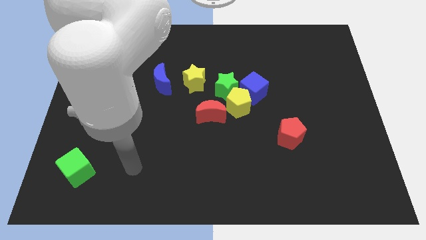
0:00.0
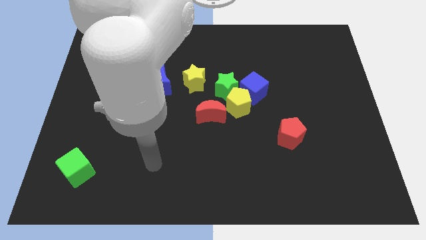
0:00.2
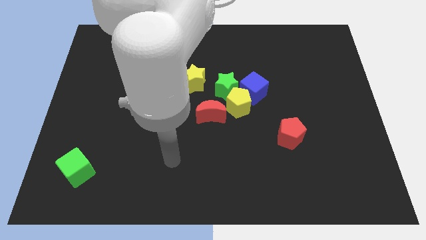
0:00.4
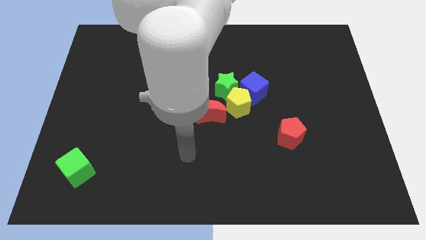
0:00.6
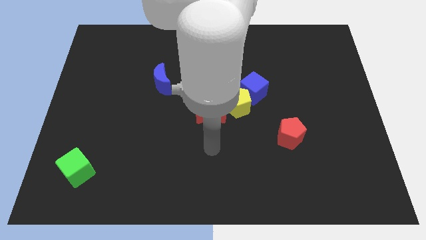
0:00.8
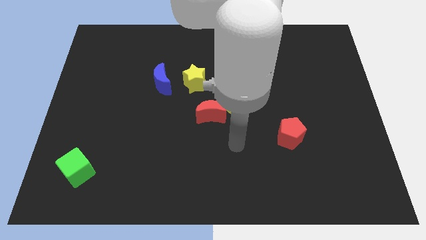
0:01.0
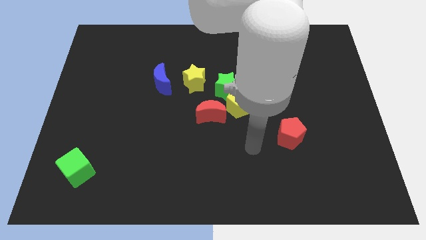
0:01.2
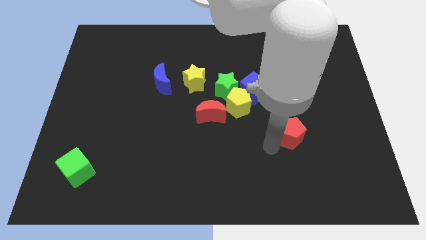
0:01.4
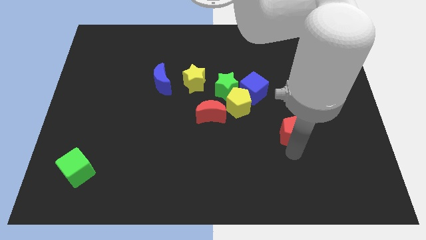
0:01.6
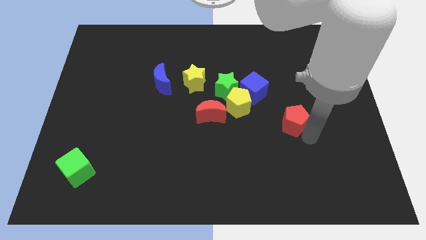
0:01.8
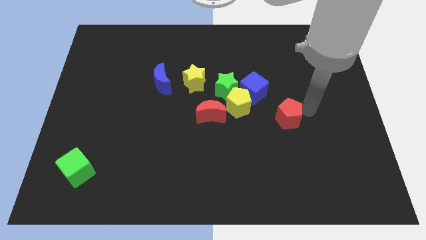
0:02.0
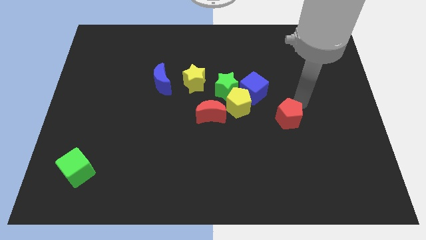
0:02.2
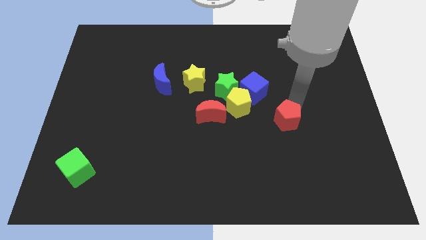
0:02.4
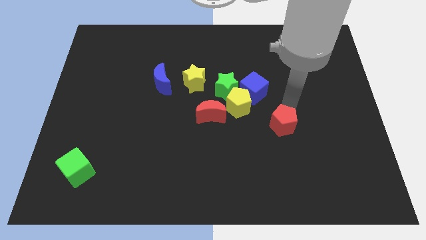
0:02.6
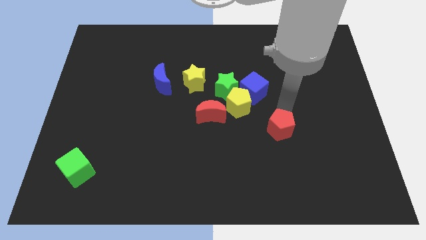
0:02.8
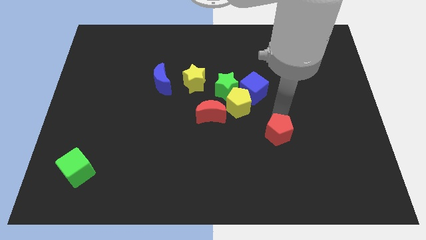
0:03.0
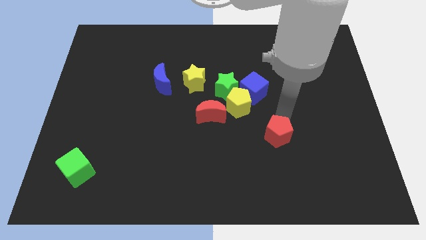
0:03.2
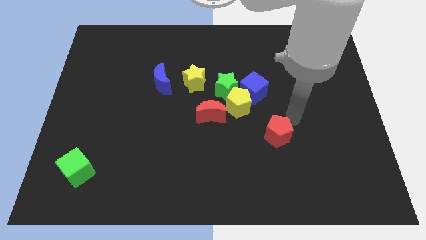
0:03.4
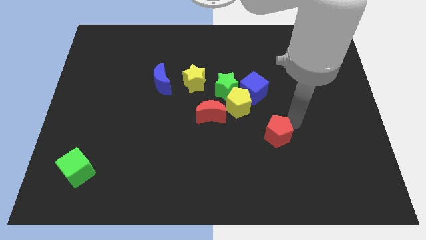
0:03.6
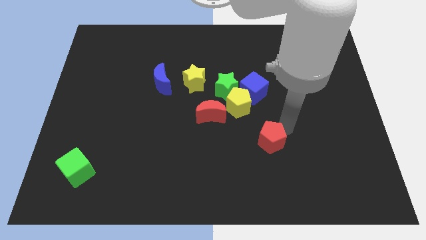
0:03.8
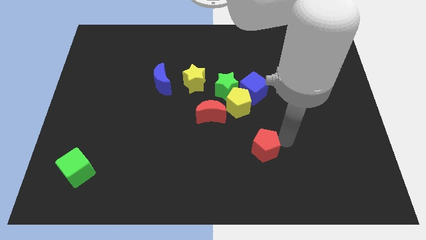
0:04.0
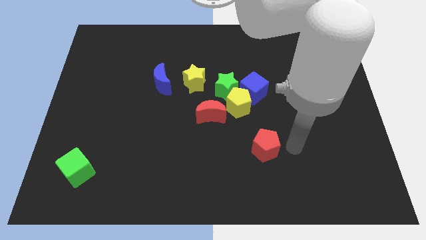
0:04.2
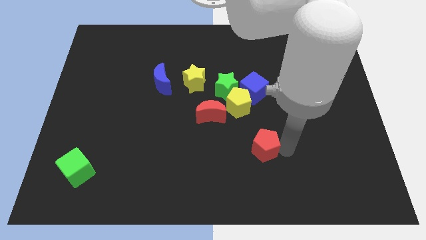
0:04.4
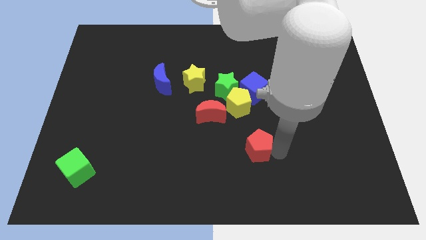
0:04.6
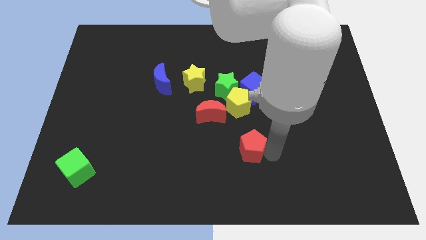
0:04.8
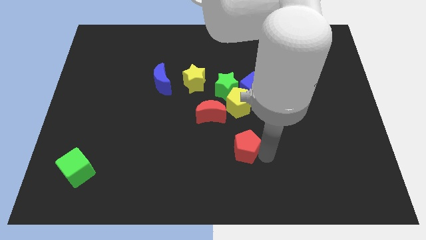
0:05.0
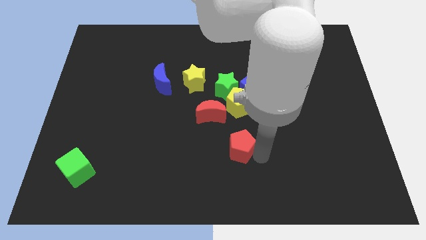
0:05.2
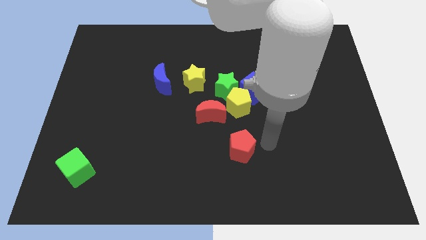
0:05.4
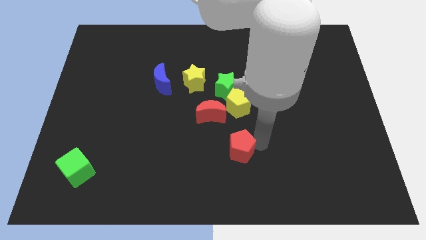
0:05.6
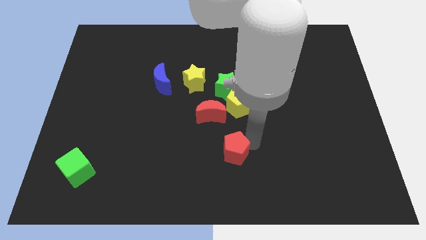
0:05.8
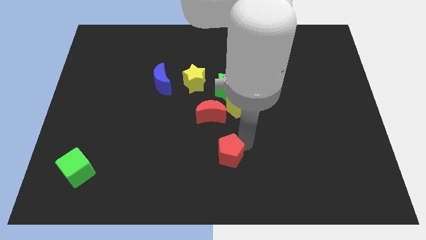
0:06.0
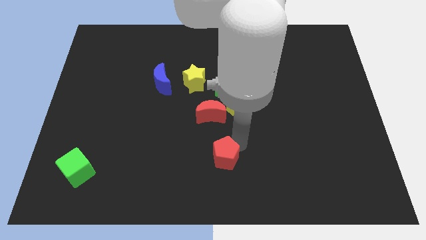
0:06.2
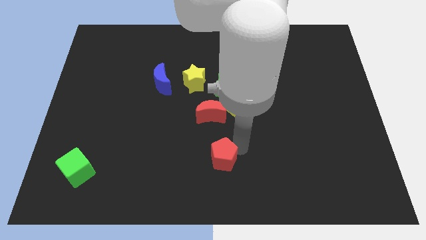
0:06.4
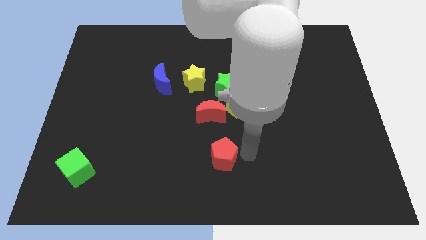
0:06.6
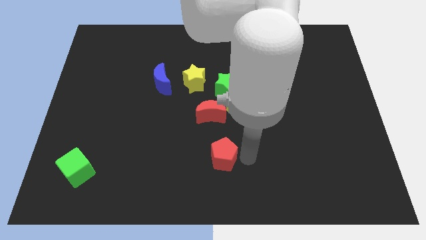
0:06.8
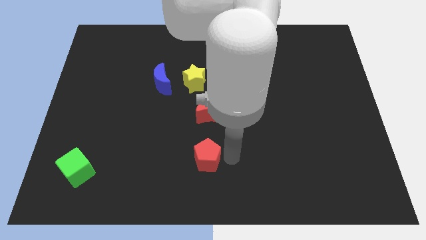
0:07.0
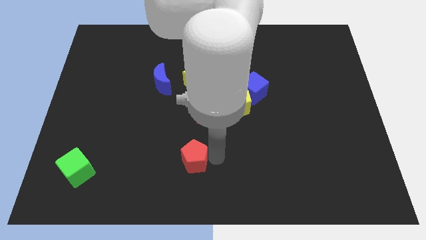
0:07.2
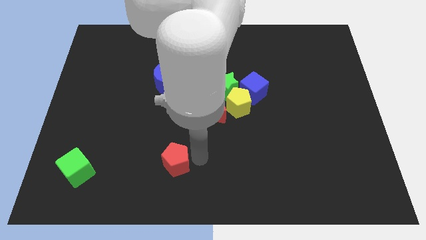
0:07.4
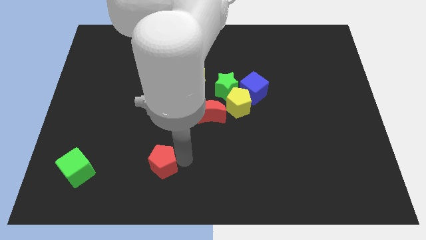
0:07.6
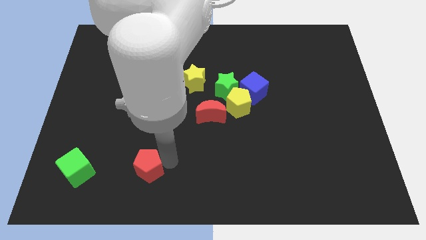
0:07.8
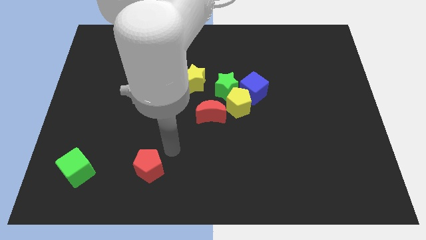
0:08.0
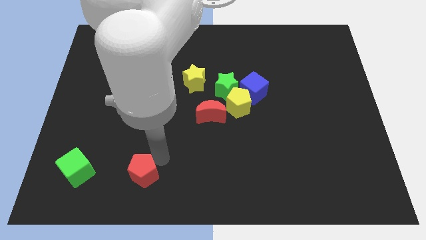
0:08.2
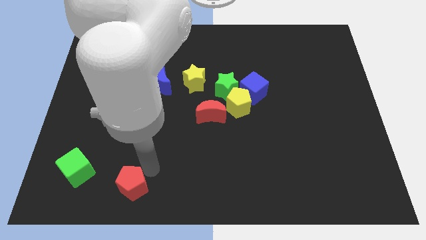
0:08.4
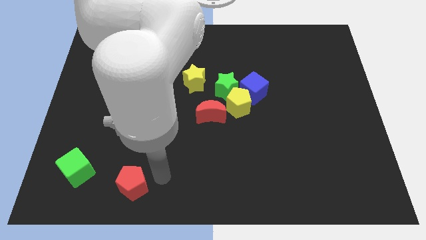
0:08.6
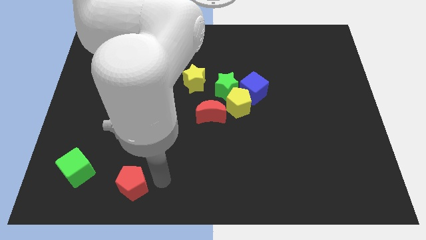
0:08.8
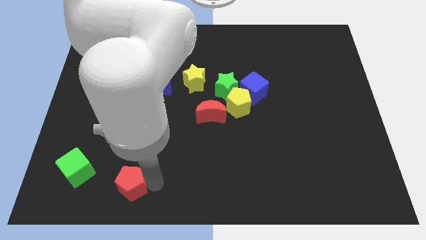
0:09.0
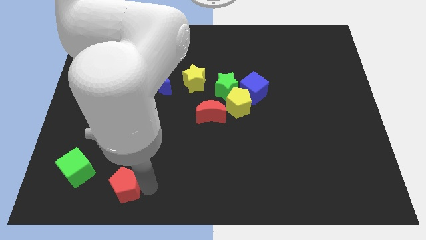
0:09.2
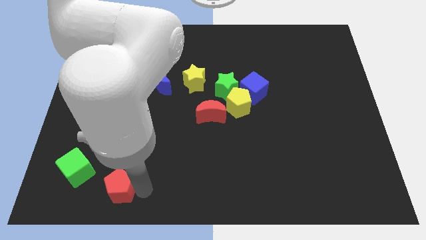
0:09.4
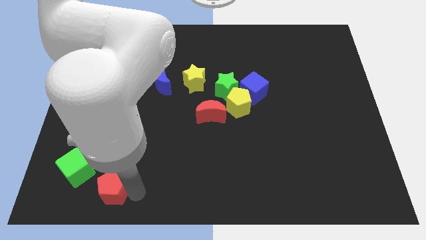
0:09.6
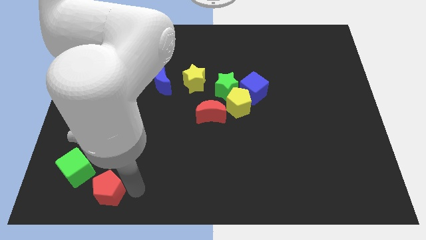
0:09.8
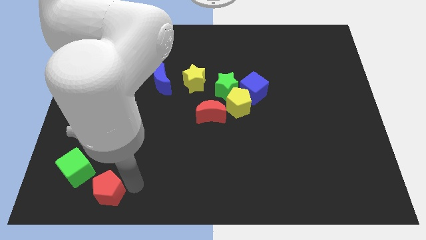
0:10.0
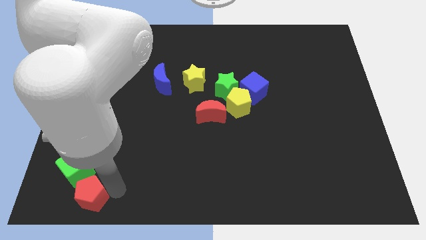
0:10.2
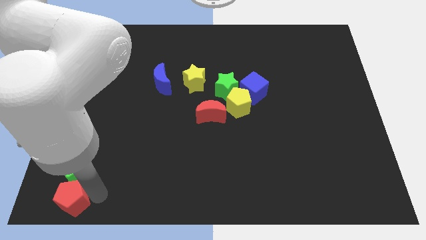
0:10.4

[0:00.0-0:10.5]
move the red pentagon to the bottom left

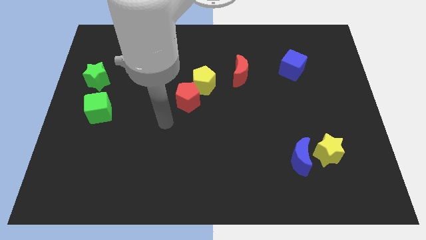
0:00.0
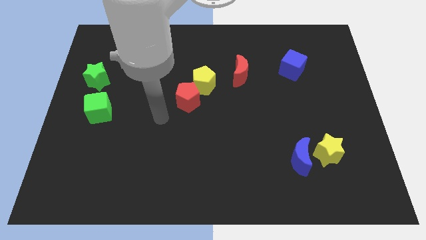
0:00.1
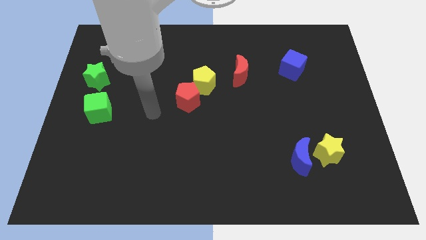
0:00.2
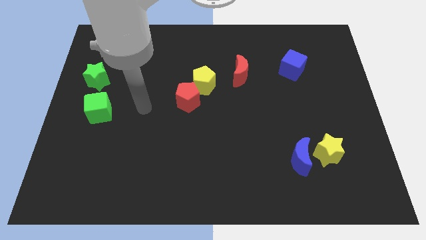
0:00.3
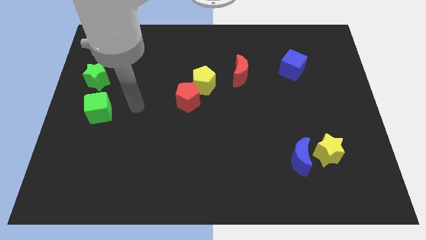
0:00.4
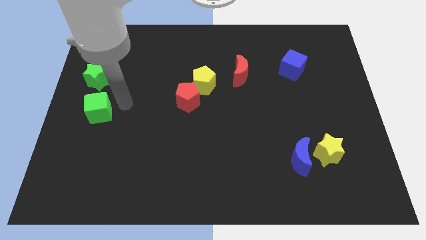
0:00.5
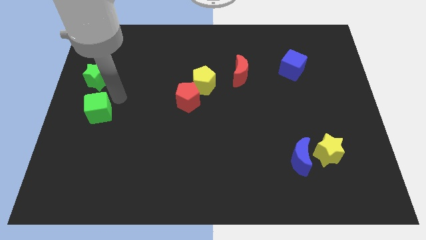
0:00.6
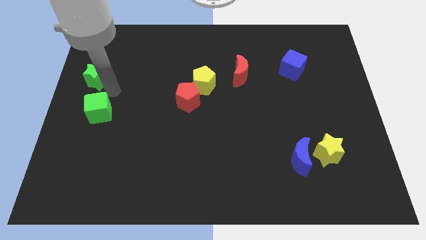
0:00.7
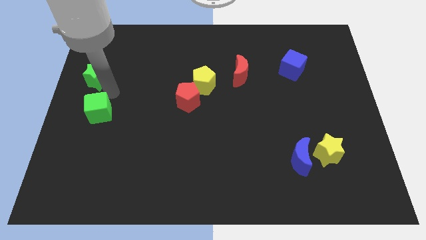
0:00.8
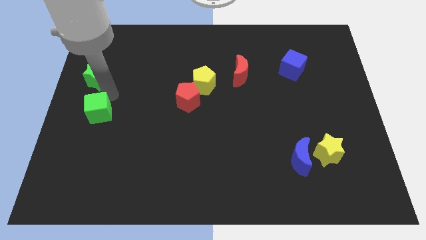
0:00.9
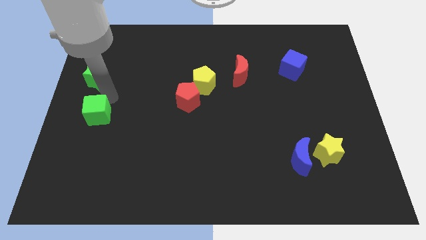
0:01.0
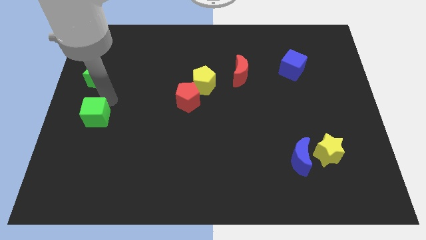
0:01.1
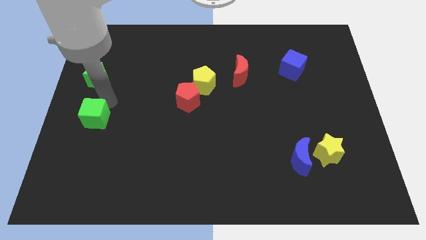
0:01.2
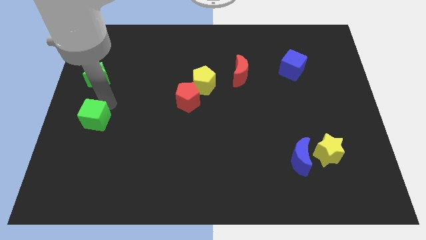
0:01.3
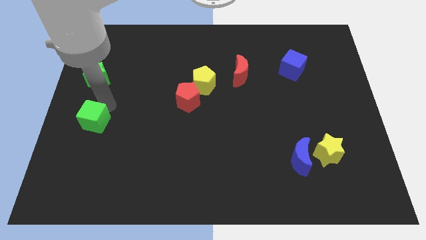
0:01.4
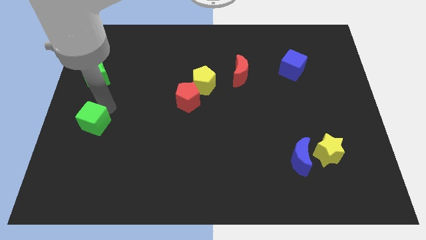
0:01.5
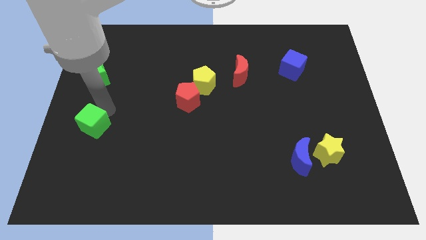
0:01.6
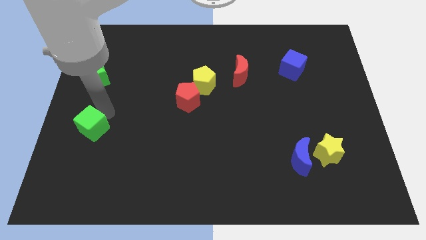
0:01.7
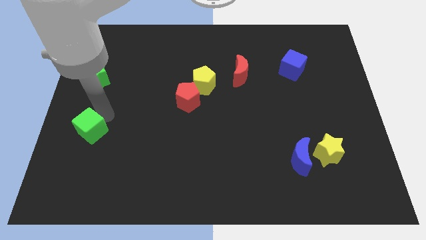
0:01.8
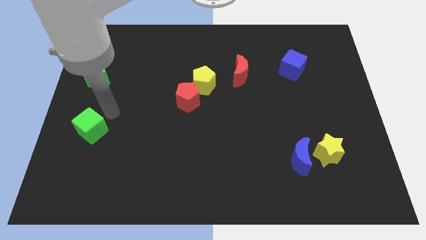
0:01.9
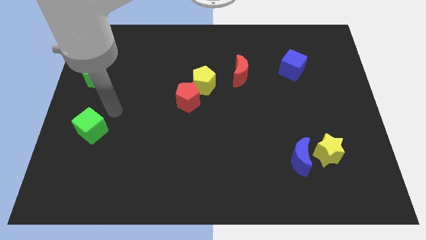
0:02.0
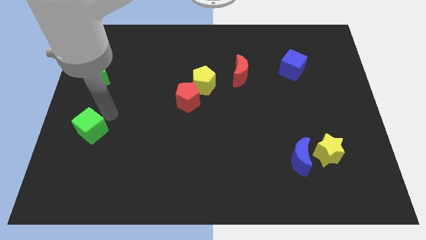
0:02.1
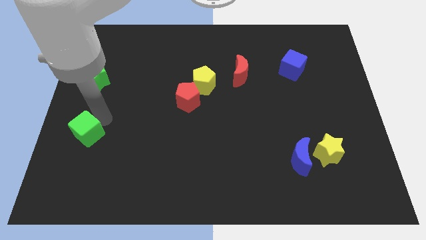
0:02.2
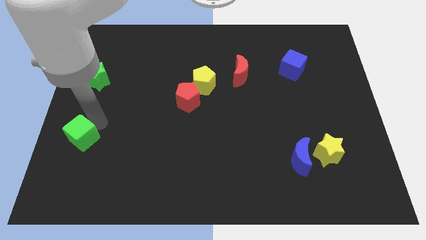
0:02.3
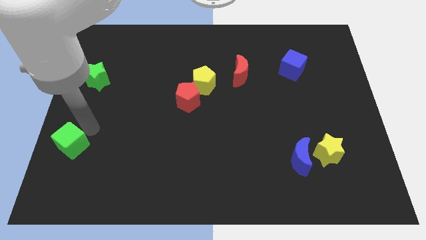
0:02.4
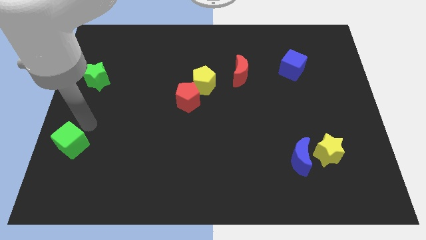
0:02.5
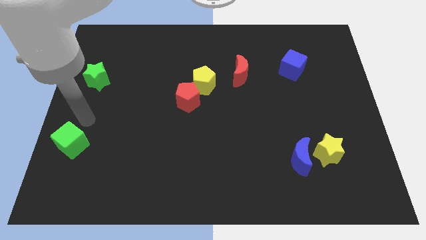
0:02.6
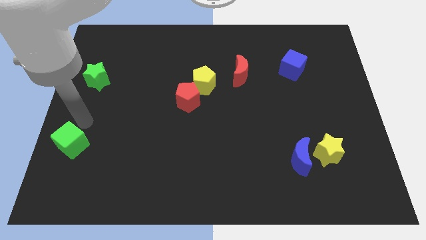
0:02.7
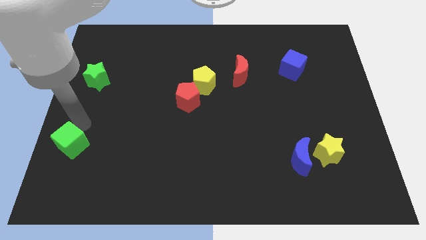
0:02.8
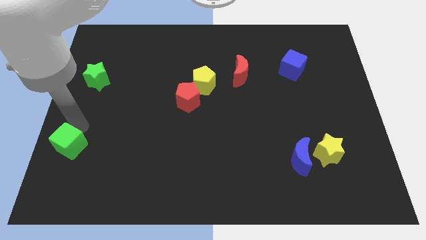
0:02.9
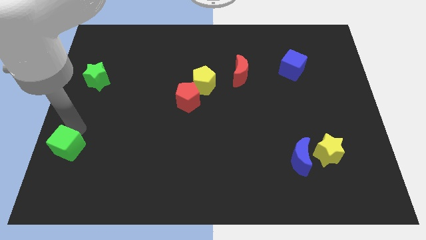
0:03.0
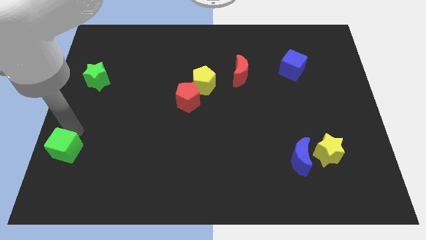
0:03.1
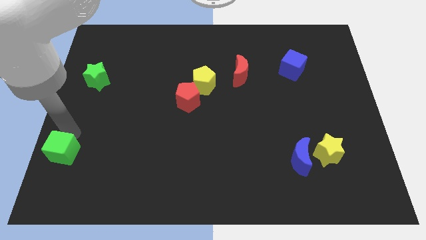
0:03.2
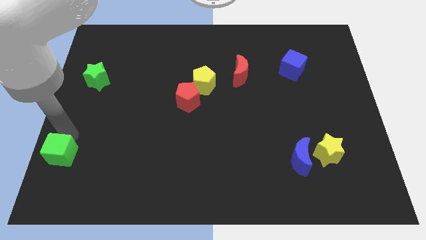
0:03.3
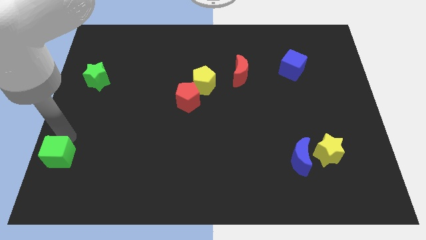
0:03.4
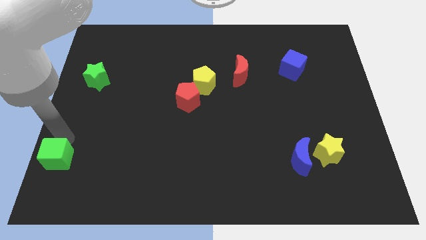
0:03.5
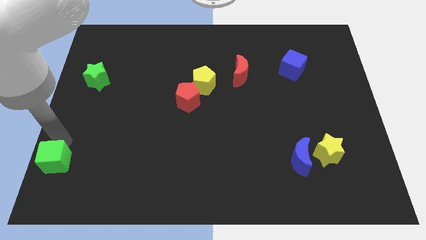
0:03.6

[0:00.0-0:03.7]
slide the green cube to the bottom left
